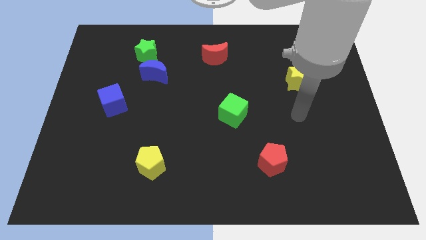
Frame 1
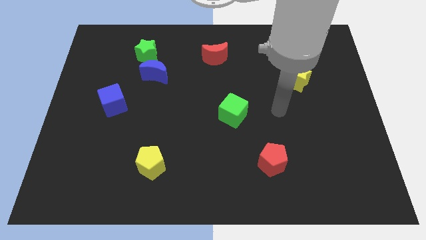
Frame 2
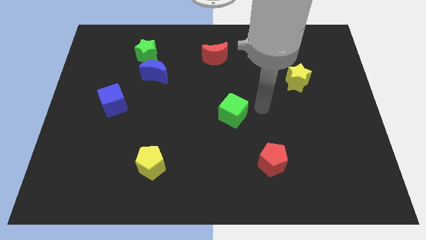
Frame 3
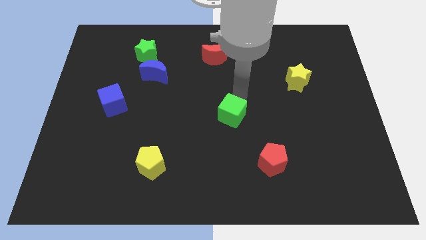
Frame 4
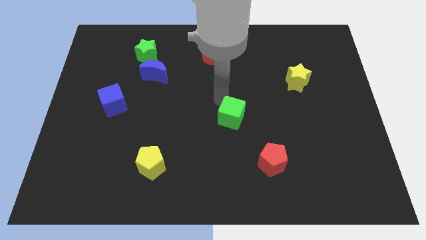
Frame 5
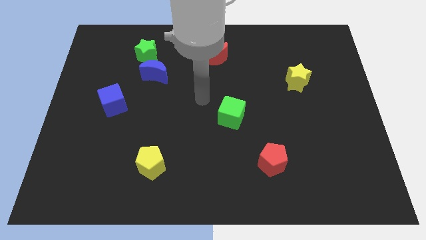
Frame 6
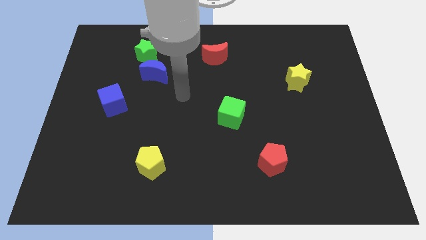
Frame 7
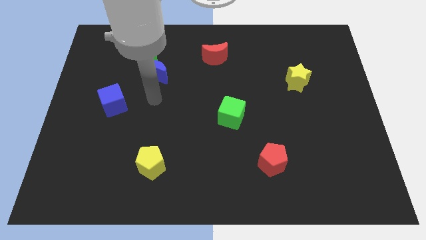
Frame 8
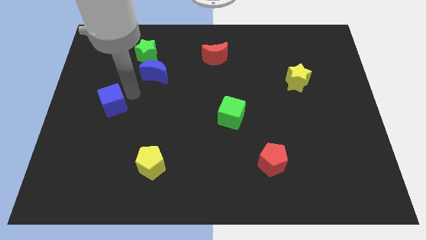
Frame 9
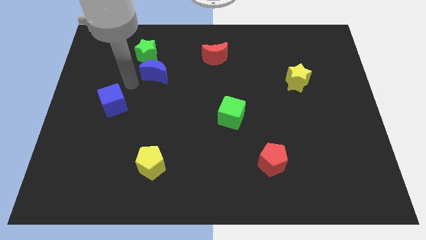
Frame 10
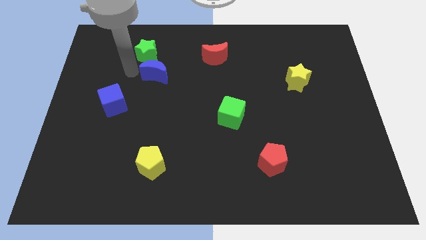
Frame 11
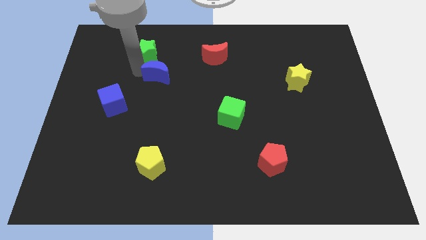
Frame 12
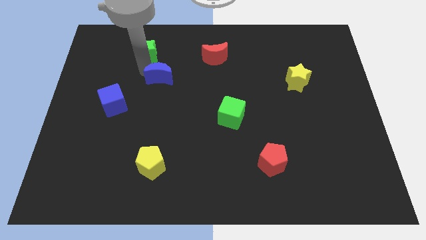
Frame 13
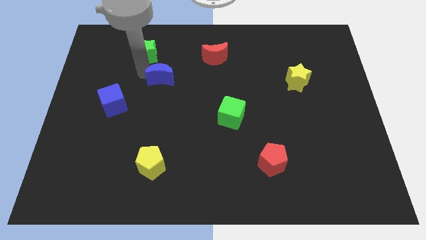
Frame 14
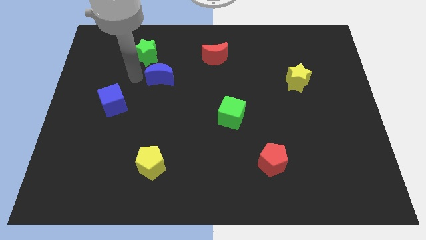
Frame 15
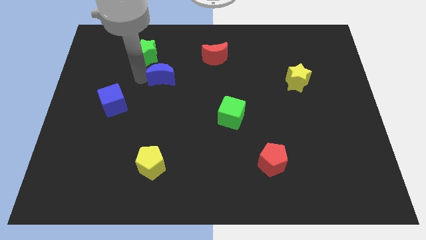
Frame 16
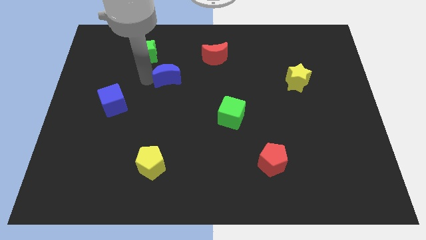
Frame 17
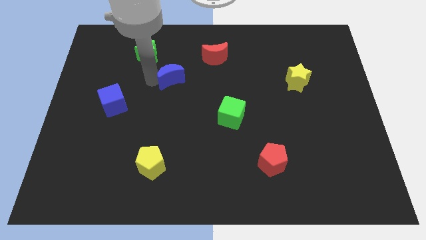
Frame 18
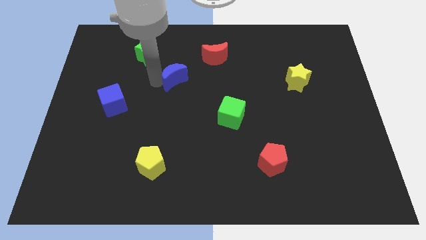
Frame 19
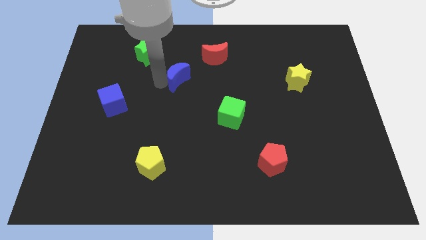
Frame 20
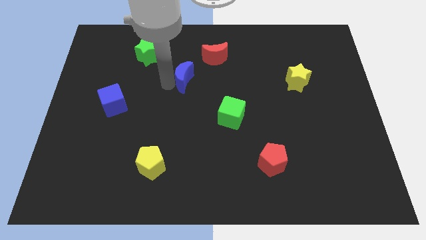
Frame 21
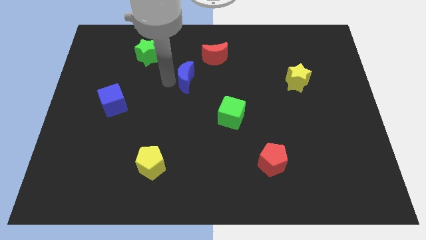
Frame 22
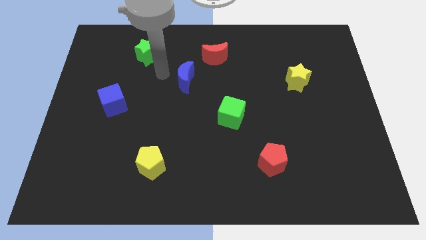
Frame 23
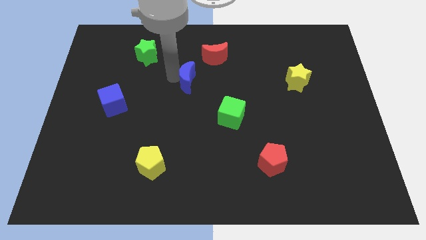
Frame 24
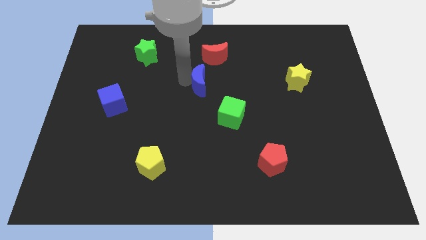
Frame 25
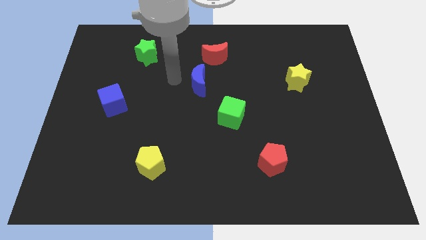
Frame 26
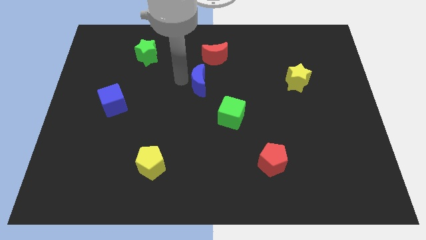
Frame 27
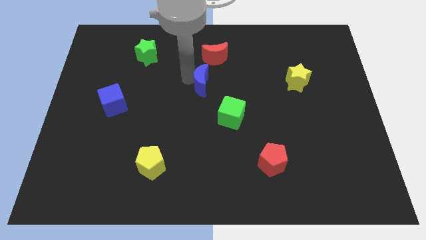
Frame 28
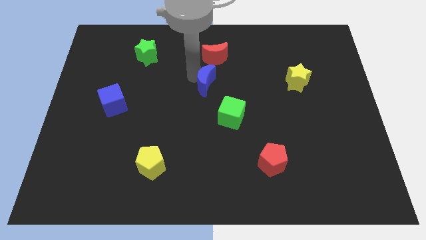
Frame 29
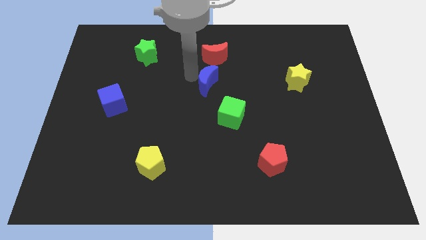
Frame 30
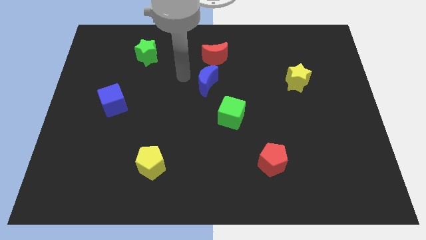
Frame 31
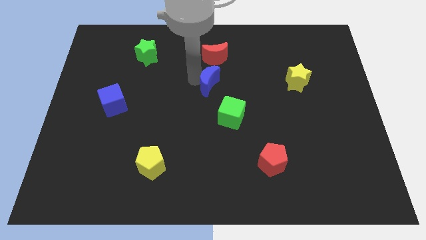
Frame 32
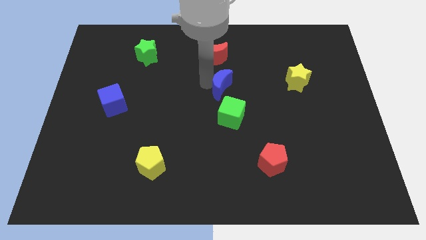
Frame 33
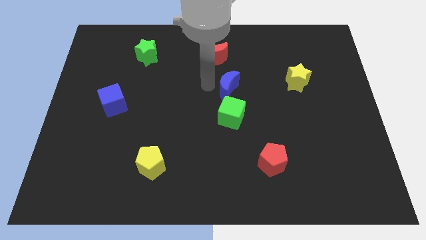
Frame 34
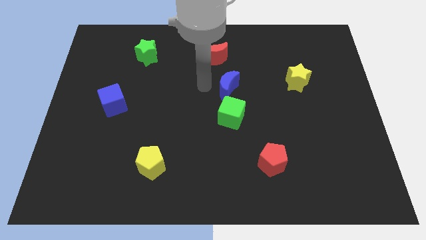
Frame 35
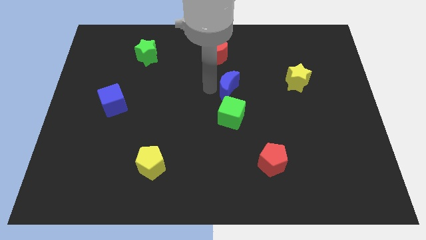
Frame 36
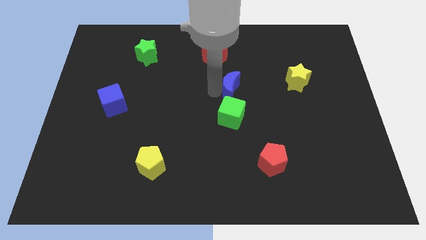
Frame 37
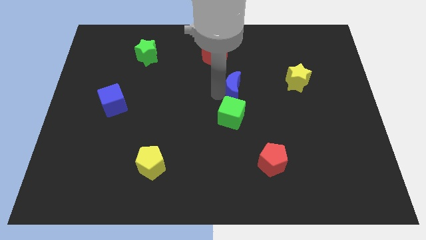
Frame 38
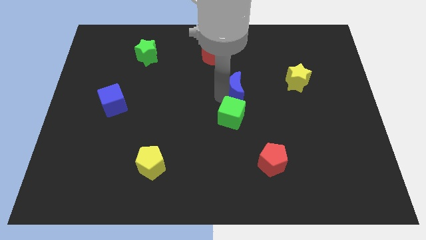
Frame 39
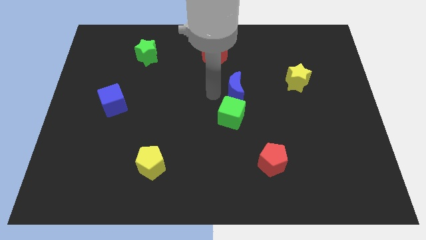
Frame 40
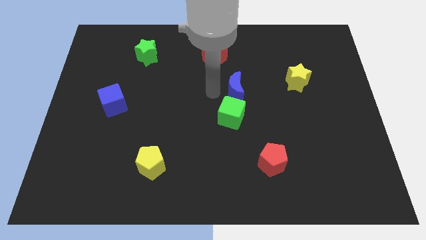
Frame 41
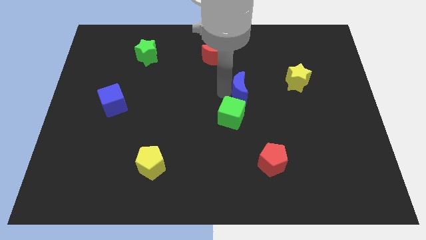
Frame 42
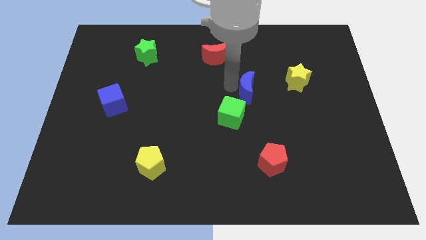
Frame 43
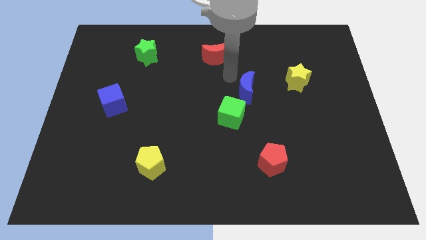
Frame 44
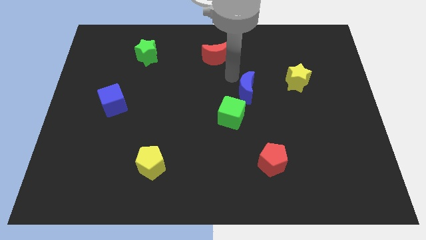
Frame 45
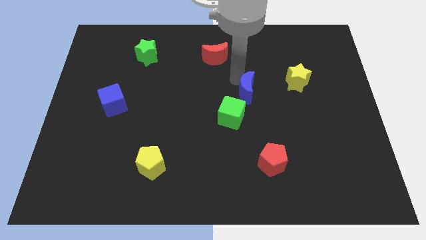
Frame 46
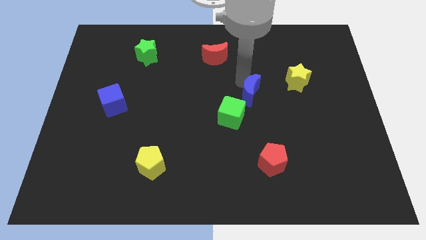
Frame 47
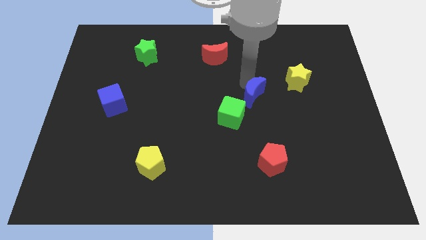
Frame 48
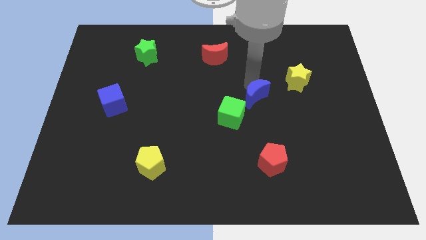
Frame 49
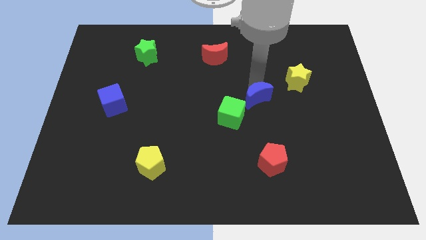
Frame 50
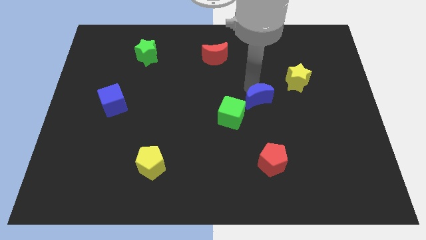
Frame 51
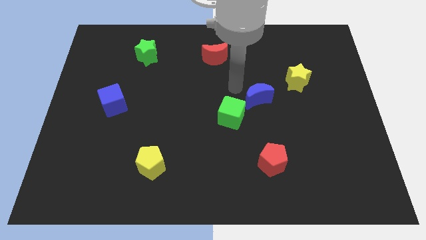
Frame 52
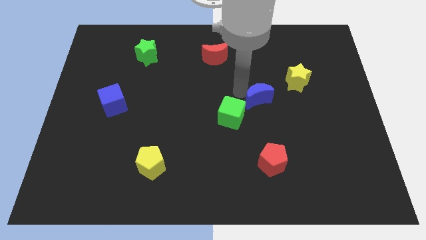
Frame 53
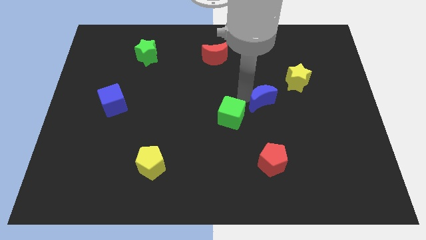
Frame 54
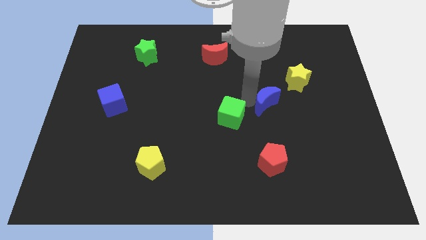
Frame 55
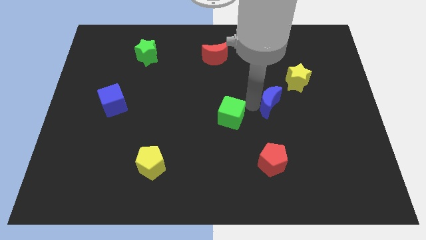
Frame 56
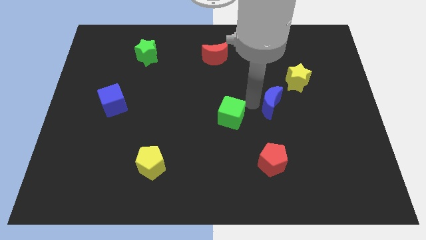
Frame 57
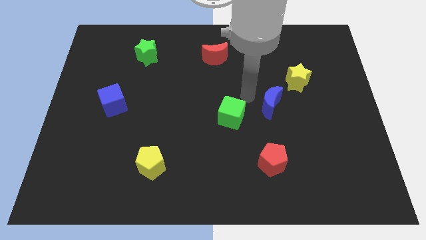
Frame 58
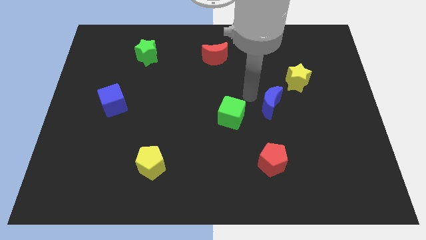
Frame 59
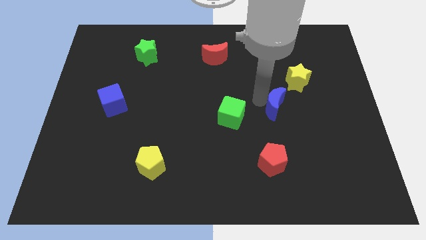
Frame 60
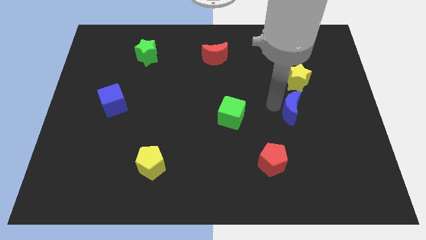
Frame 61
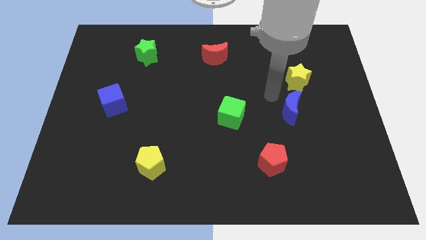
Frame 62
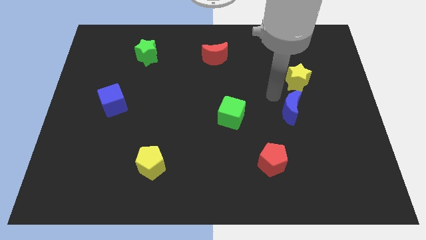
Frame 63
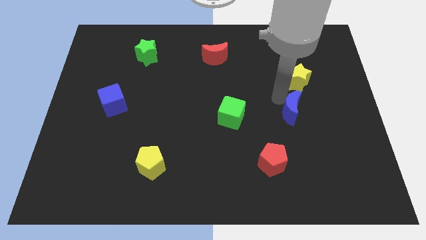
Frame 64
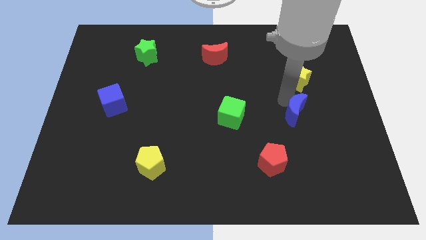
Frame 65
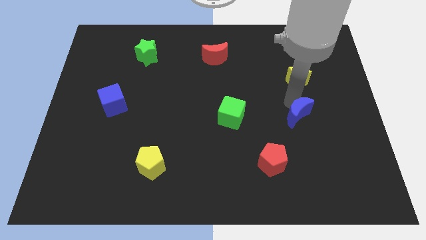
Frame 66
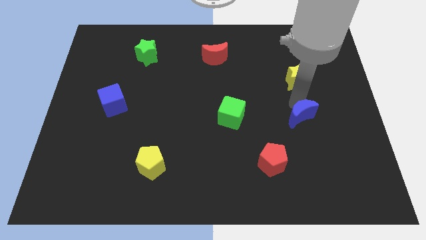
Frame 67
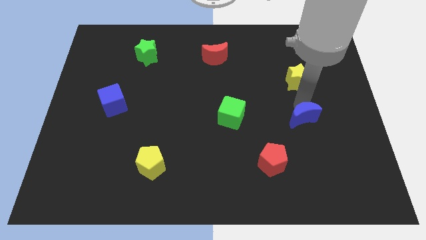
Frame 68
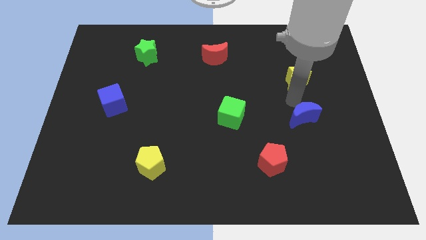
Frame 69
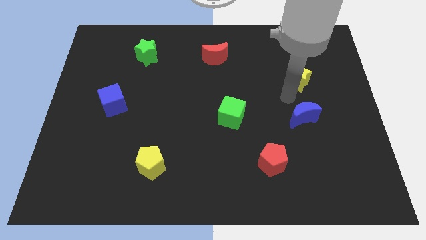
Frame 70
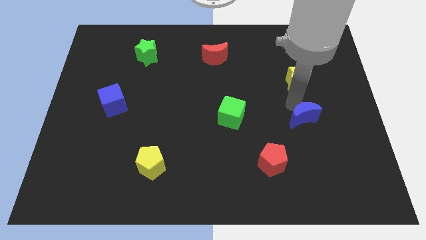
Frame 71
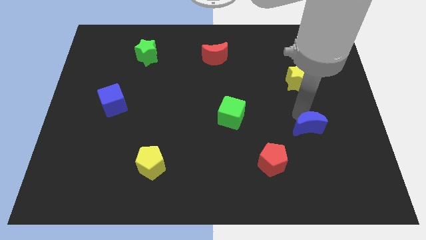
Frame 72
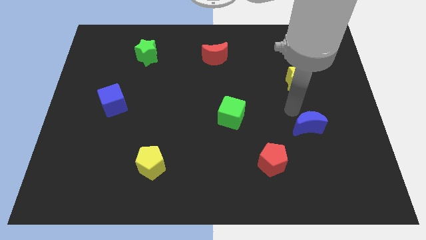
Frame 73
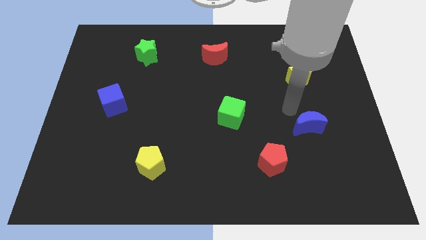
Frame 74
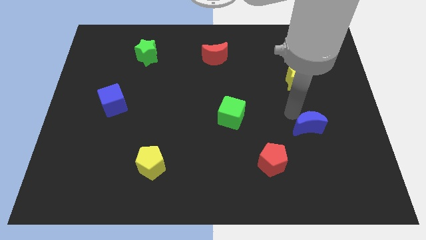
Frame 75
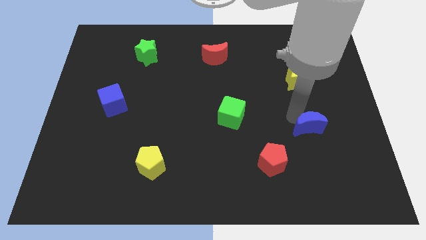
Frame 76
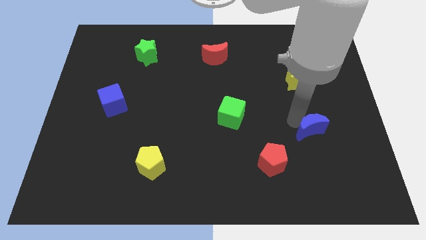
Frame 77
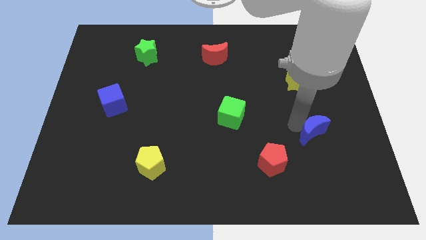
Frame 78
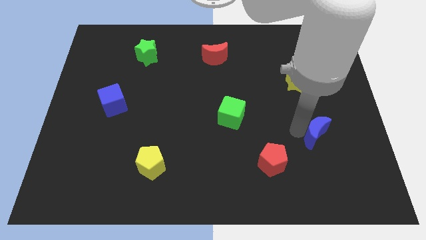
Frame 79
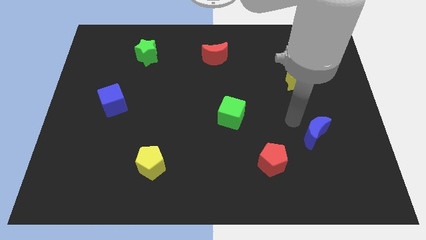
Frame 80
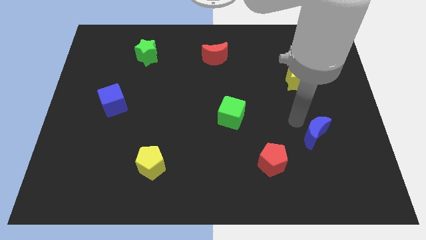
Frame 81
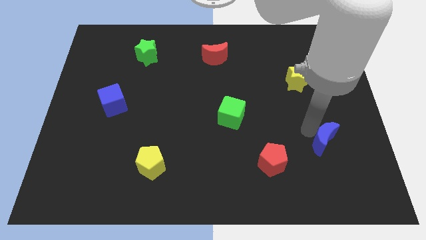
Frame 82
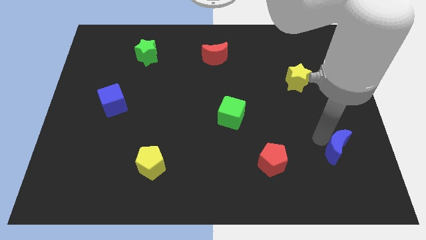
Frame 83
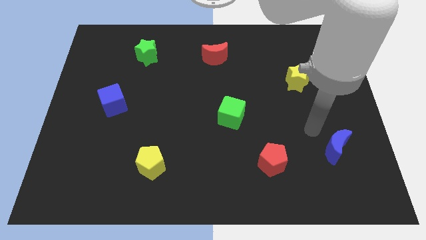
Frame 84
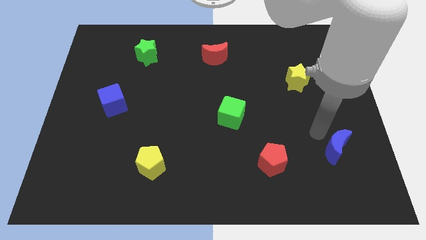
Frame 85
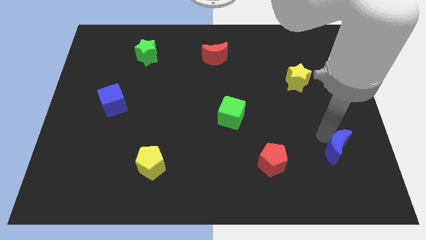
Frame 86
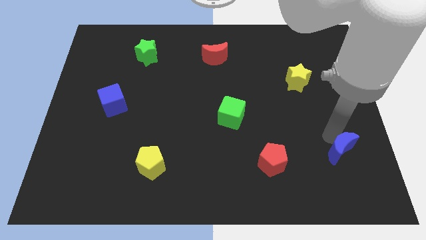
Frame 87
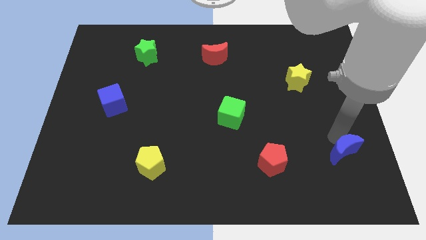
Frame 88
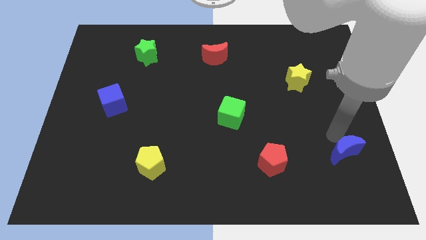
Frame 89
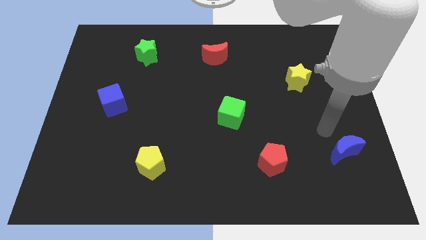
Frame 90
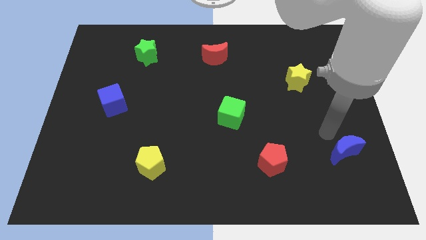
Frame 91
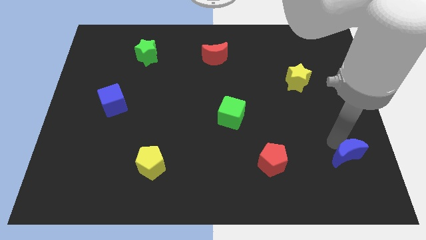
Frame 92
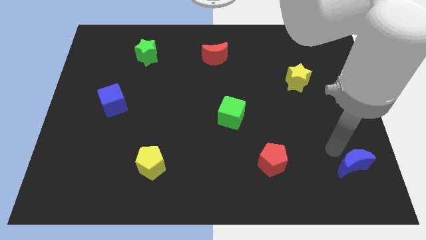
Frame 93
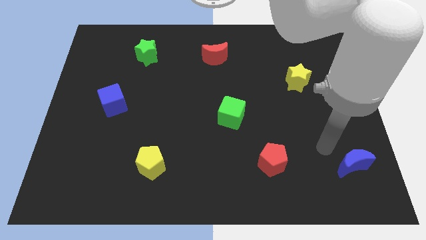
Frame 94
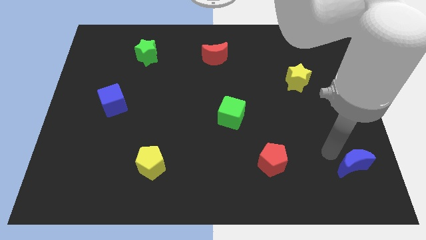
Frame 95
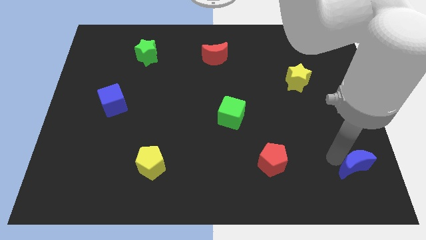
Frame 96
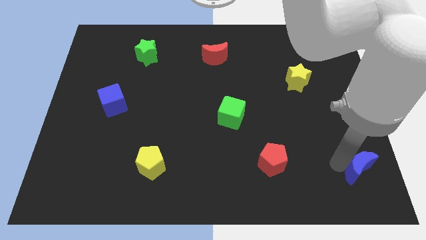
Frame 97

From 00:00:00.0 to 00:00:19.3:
slide the blue moon to the bottom right of the board
